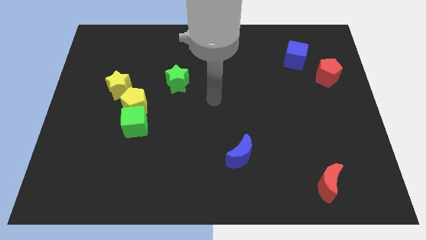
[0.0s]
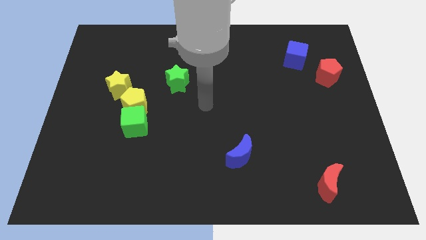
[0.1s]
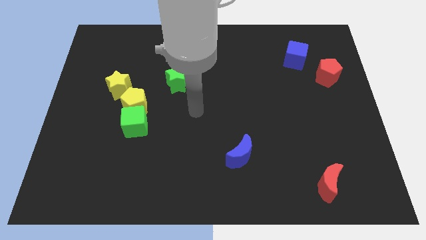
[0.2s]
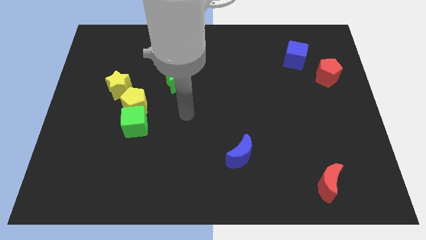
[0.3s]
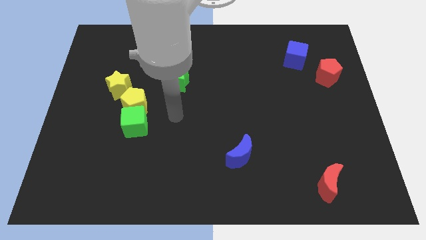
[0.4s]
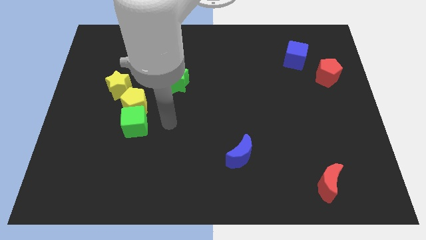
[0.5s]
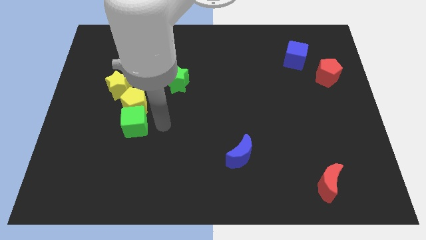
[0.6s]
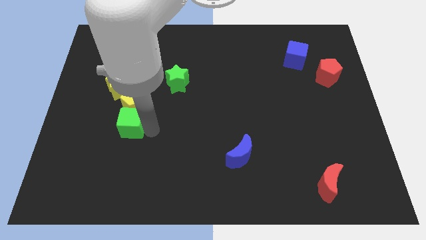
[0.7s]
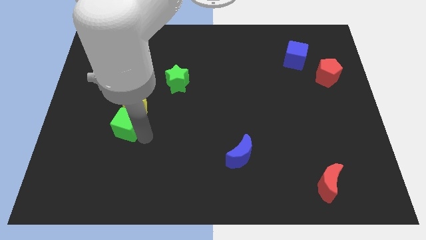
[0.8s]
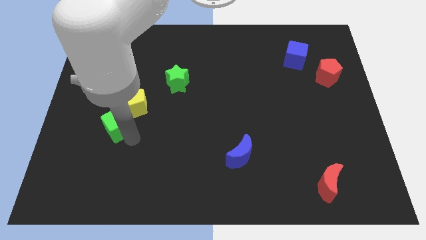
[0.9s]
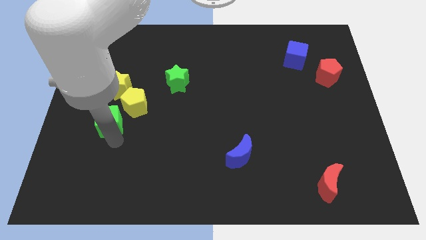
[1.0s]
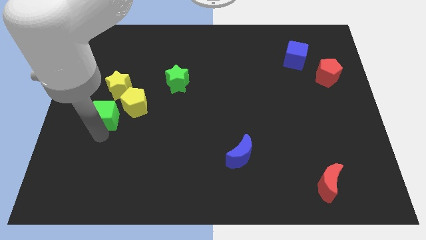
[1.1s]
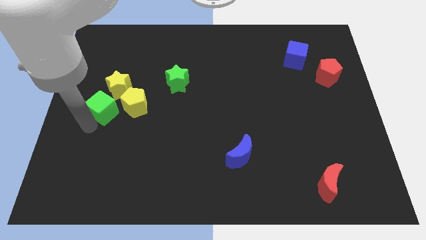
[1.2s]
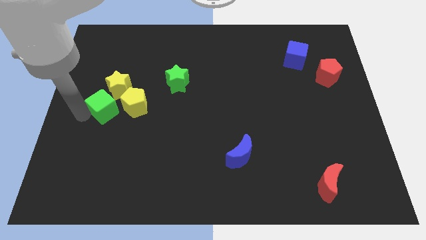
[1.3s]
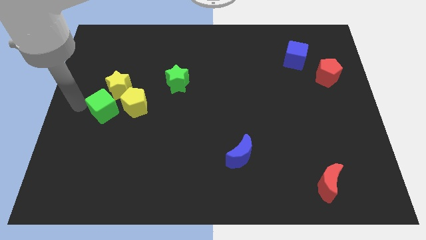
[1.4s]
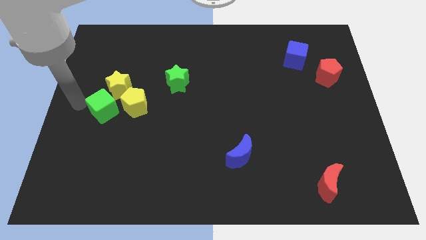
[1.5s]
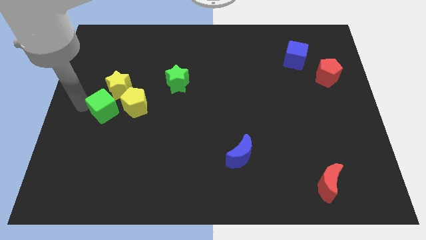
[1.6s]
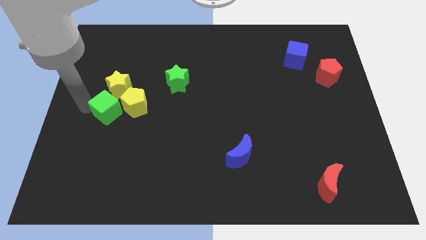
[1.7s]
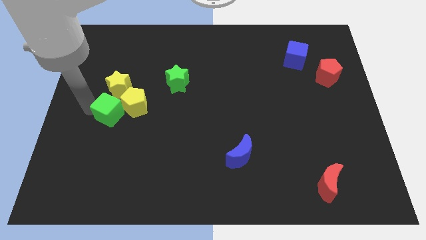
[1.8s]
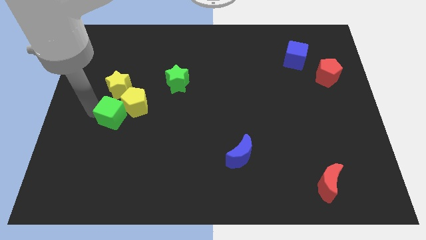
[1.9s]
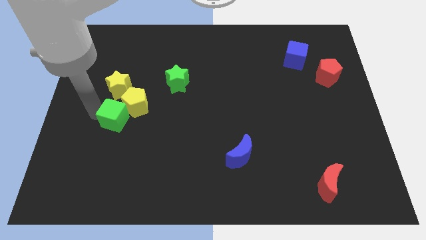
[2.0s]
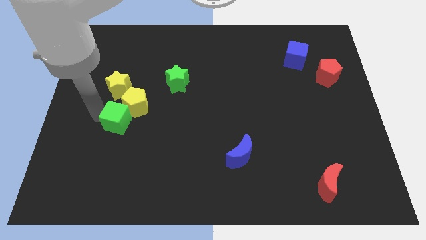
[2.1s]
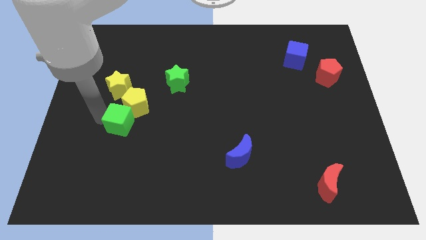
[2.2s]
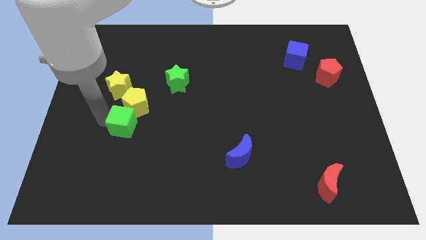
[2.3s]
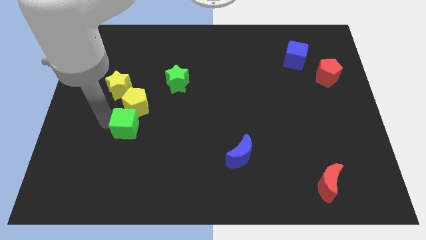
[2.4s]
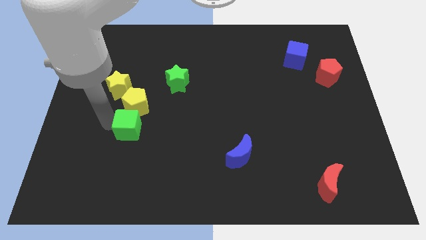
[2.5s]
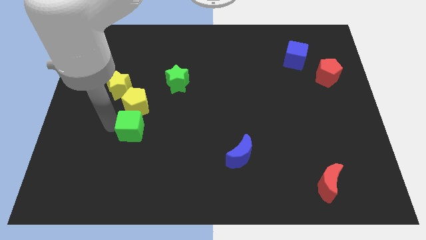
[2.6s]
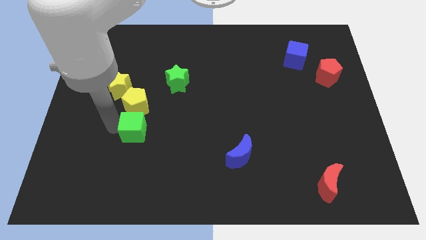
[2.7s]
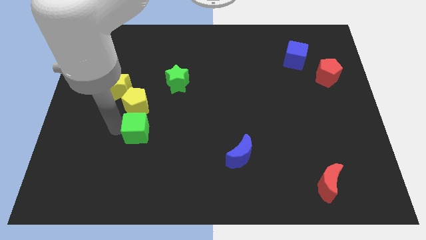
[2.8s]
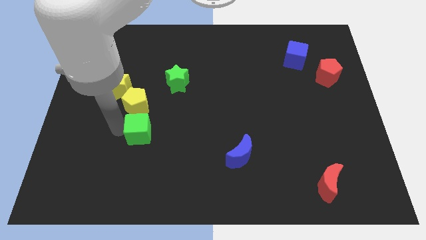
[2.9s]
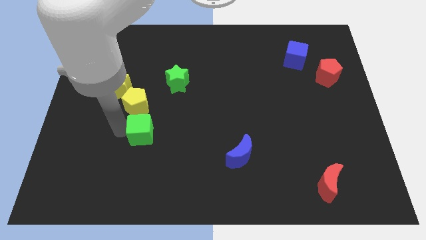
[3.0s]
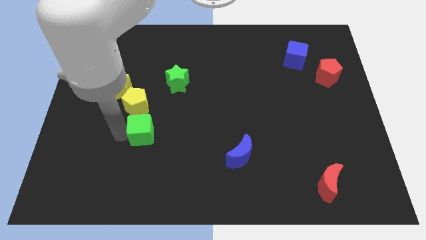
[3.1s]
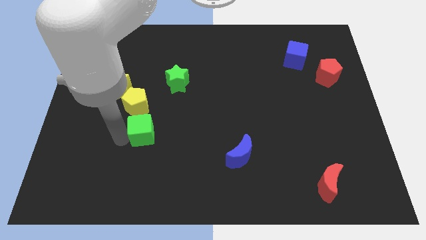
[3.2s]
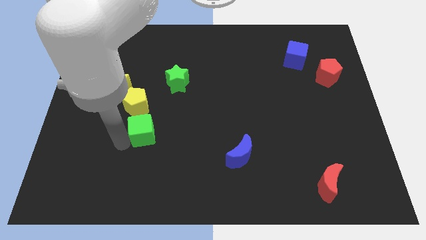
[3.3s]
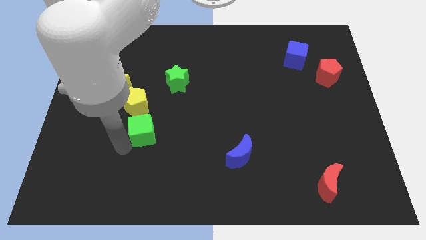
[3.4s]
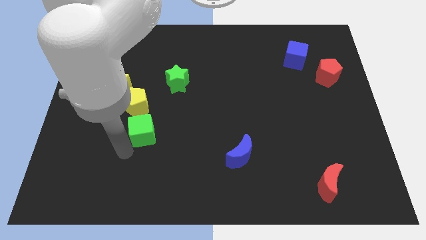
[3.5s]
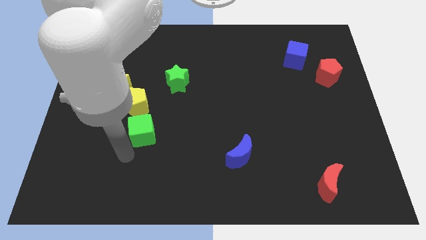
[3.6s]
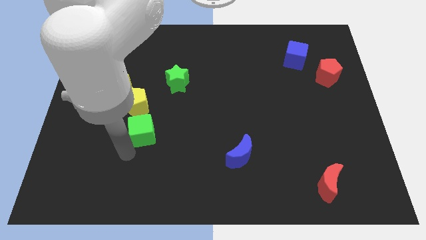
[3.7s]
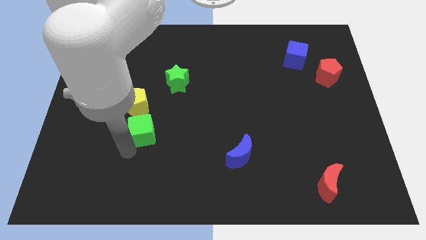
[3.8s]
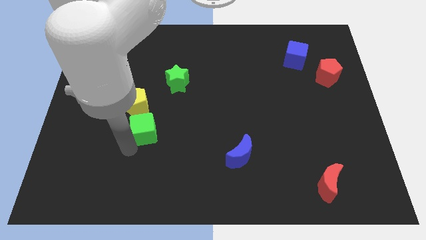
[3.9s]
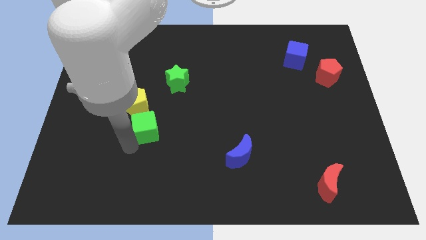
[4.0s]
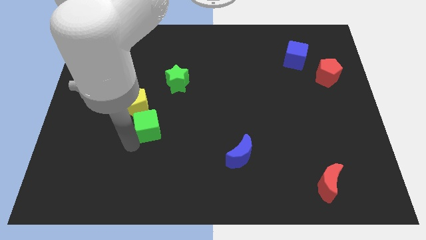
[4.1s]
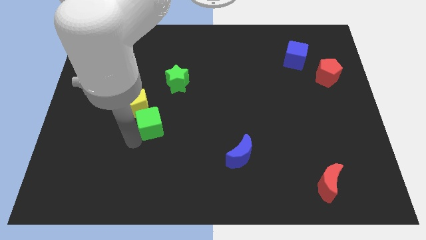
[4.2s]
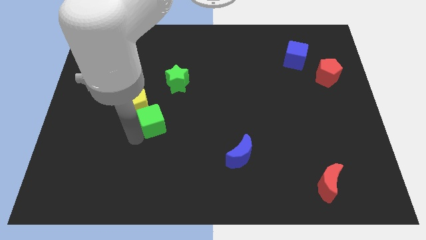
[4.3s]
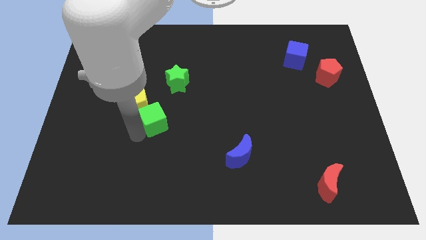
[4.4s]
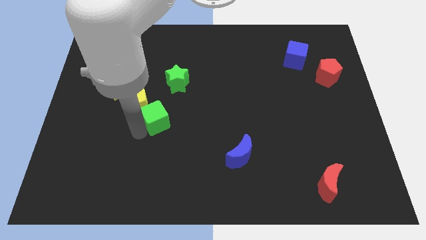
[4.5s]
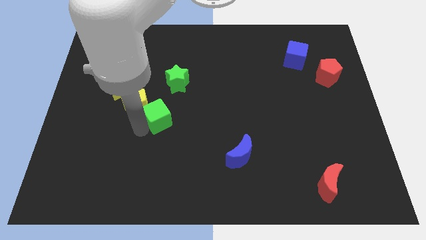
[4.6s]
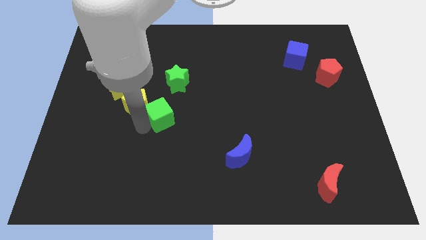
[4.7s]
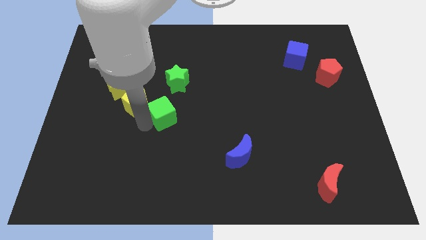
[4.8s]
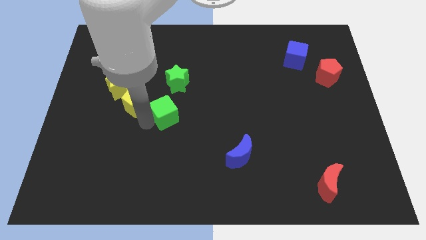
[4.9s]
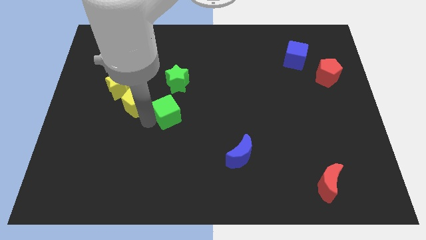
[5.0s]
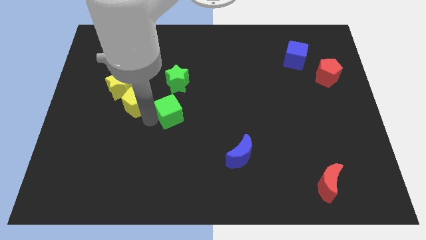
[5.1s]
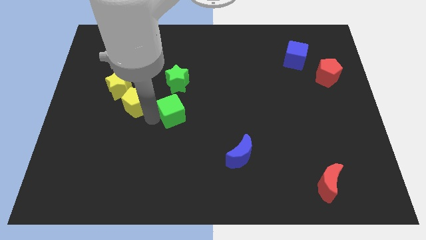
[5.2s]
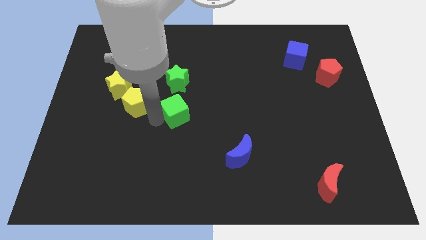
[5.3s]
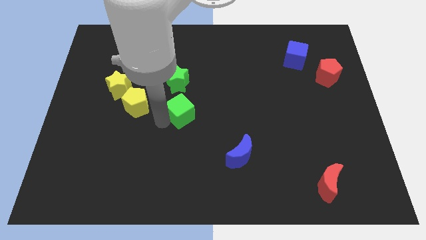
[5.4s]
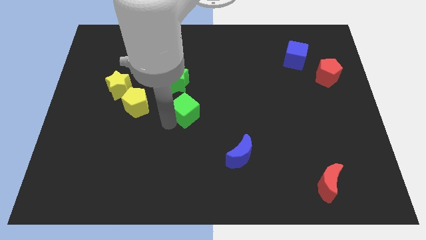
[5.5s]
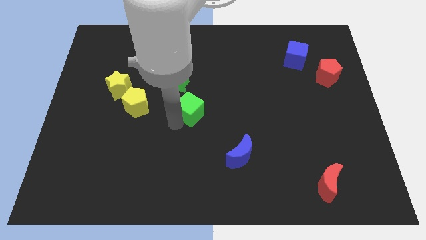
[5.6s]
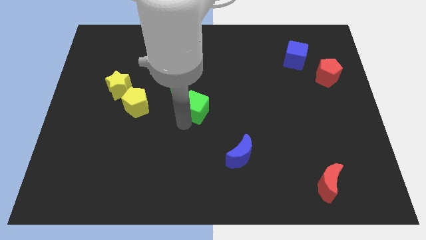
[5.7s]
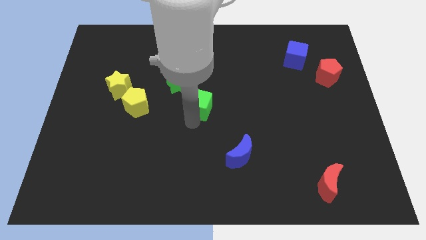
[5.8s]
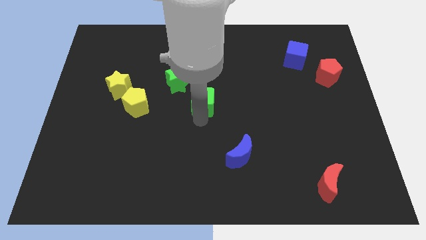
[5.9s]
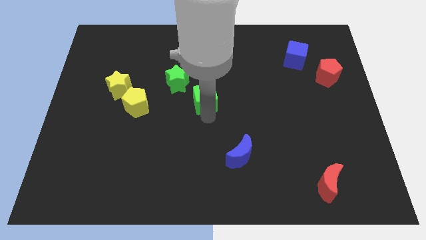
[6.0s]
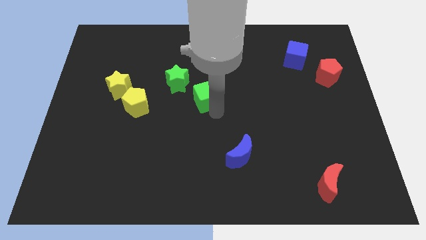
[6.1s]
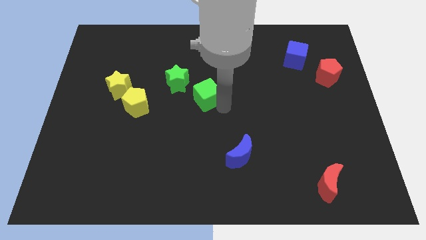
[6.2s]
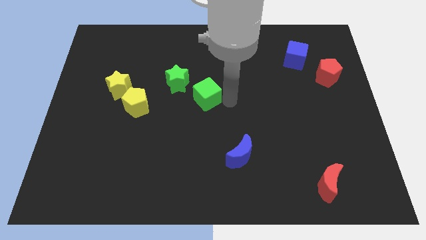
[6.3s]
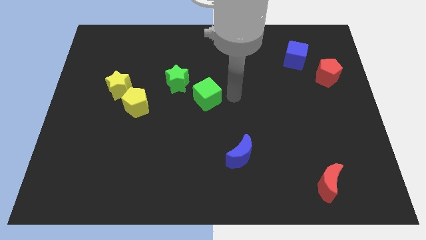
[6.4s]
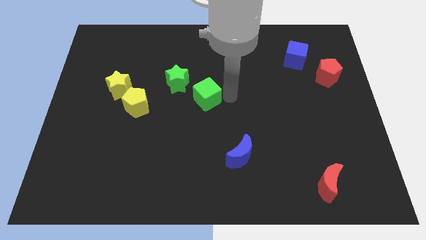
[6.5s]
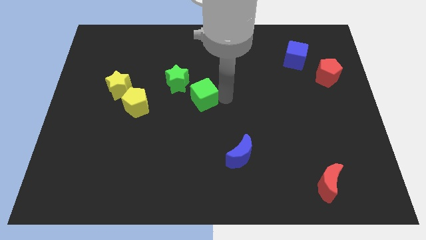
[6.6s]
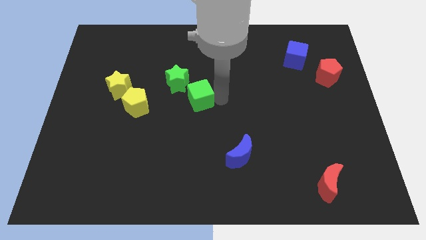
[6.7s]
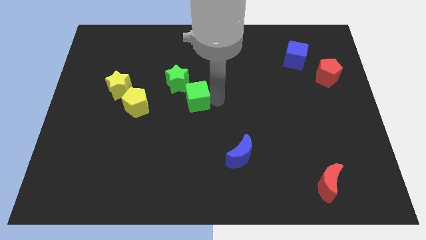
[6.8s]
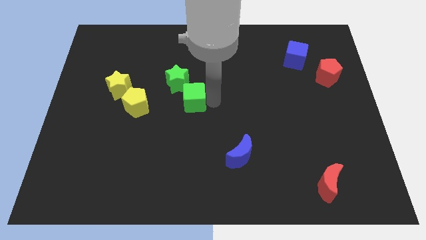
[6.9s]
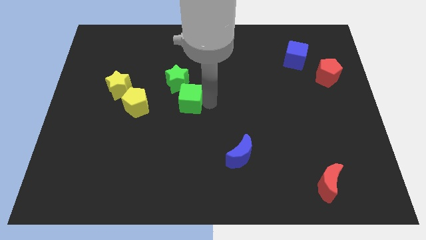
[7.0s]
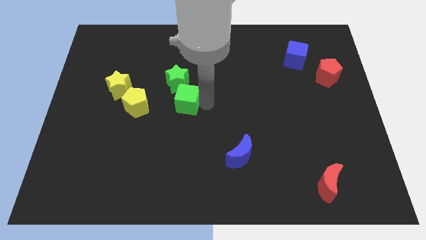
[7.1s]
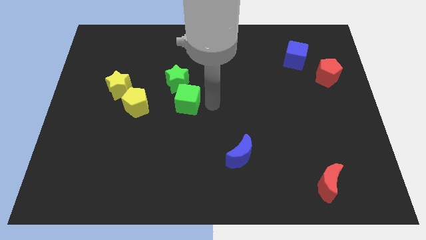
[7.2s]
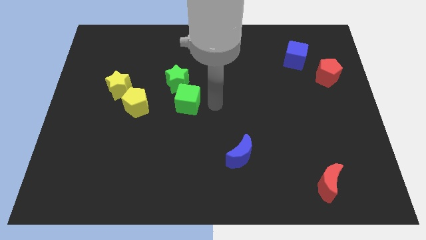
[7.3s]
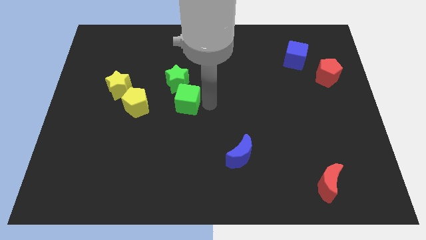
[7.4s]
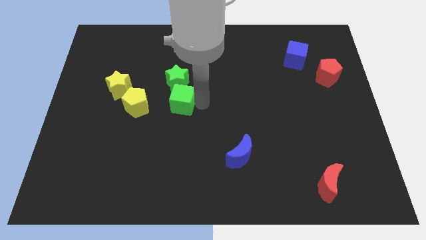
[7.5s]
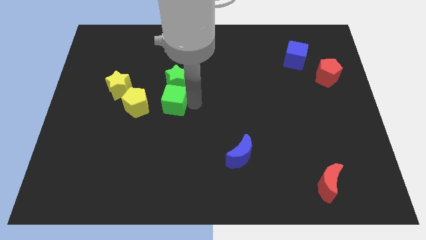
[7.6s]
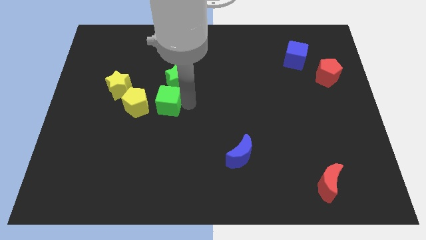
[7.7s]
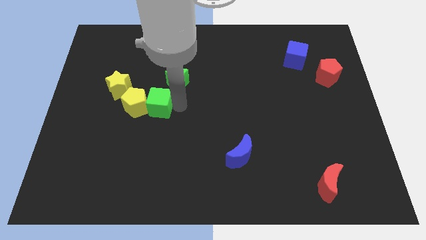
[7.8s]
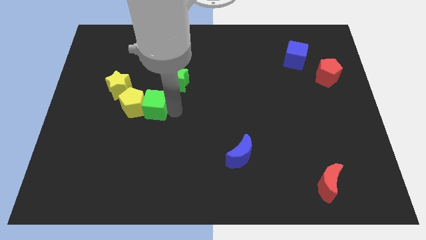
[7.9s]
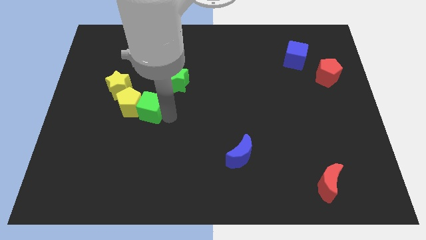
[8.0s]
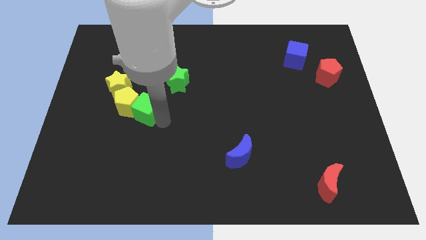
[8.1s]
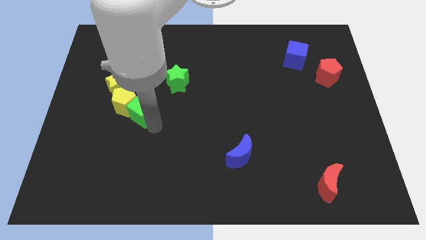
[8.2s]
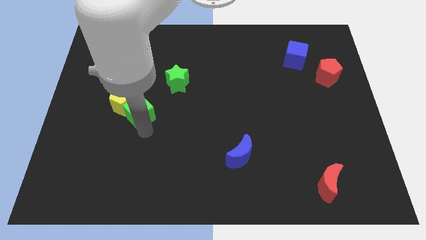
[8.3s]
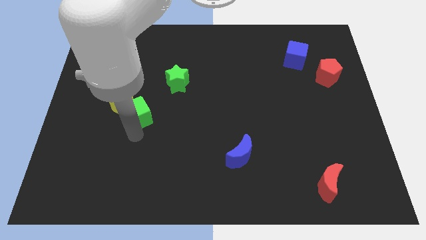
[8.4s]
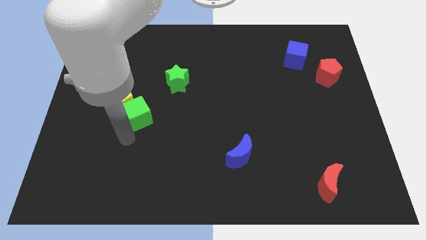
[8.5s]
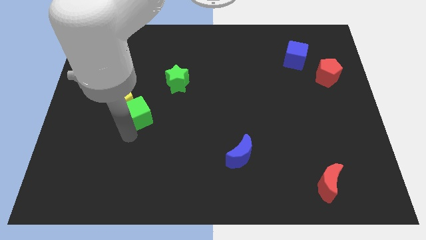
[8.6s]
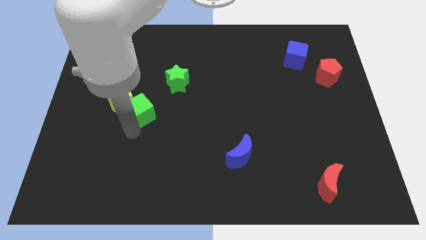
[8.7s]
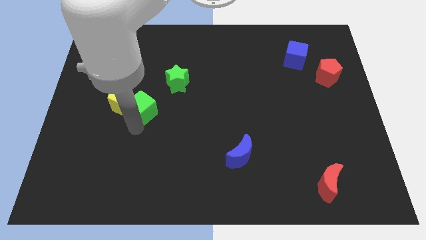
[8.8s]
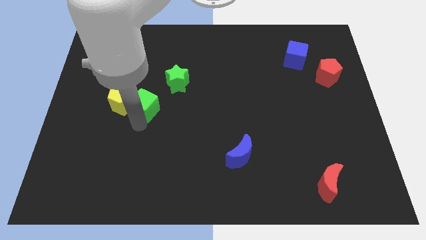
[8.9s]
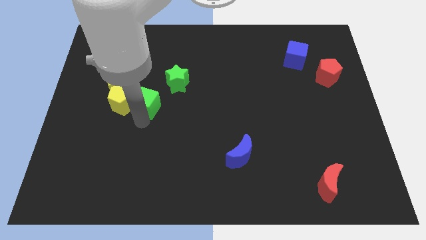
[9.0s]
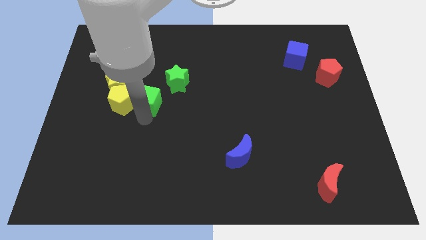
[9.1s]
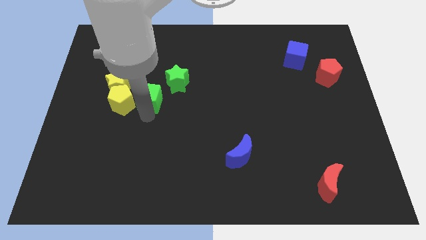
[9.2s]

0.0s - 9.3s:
move the green cube upwards a little bit
